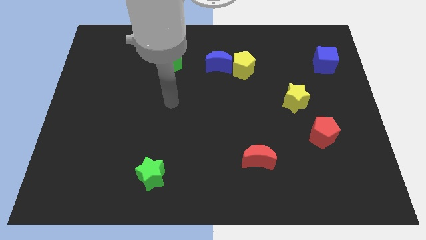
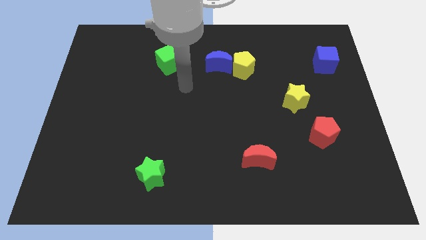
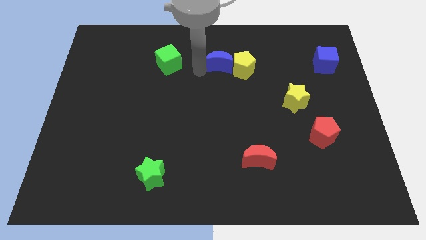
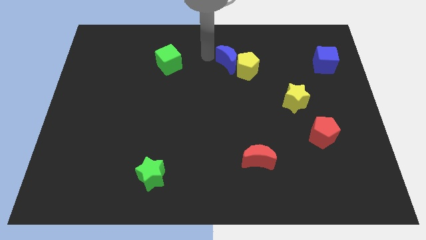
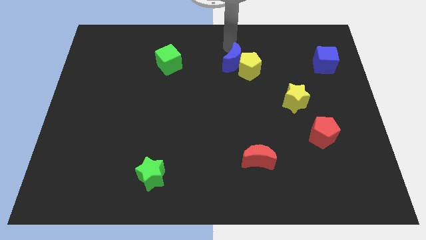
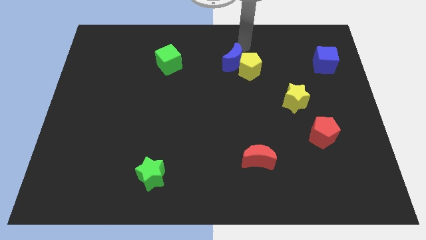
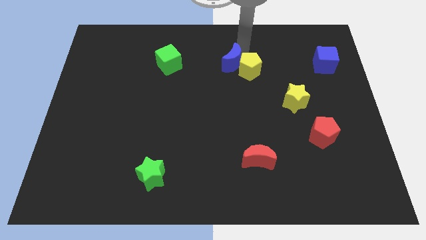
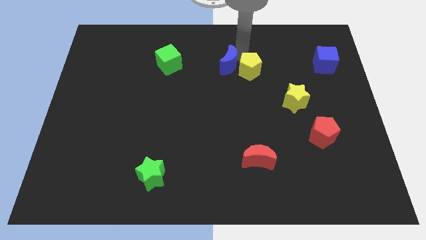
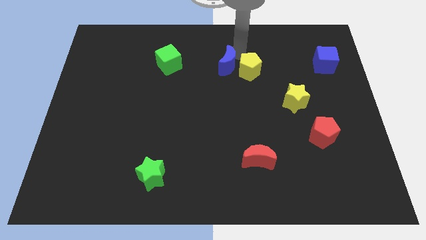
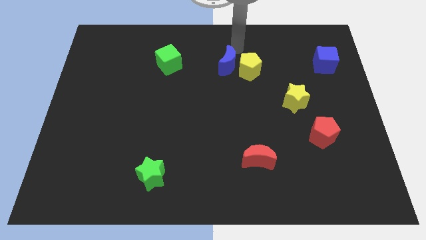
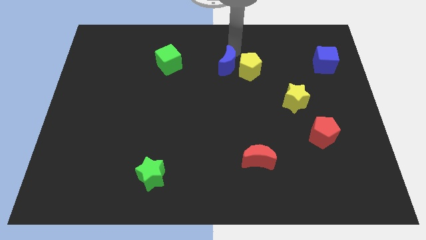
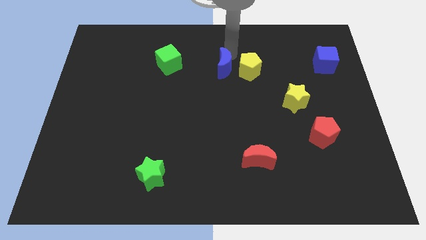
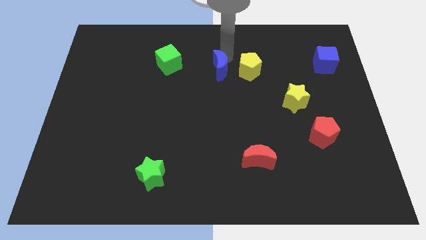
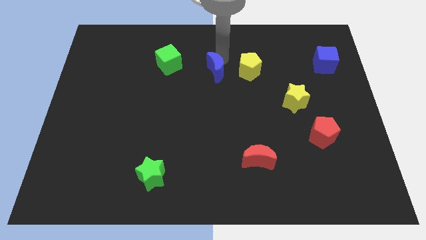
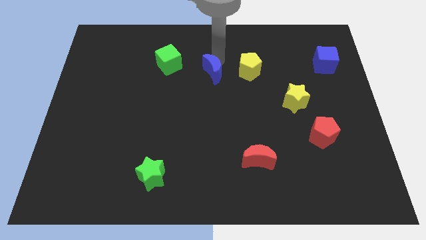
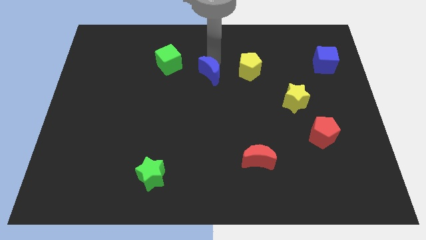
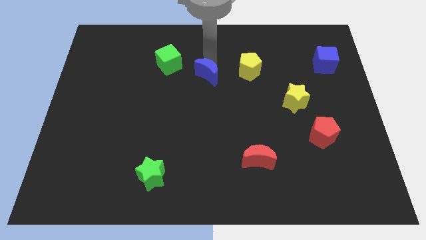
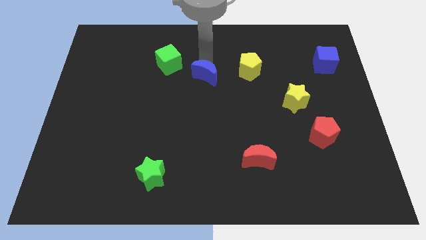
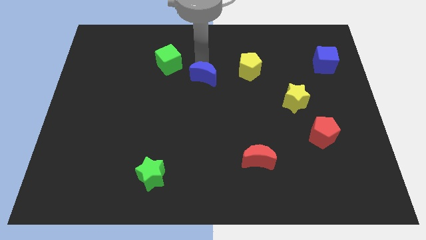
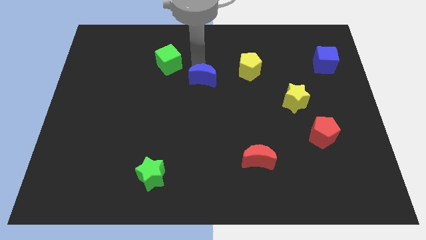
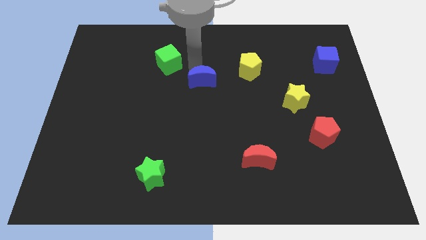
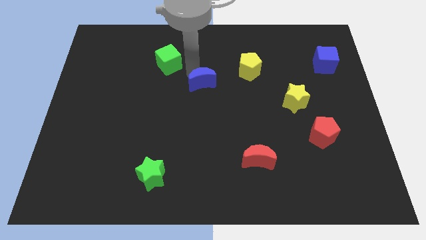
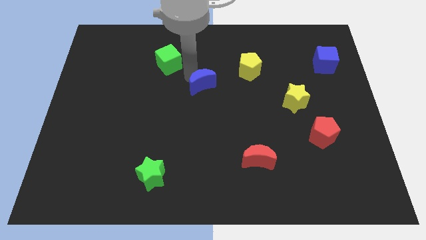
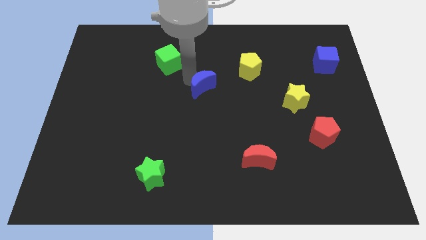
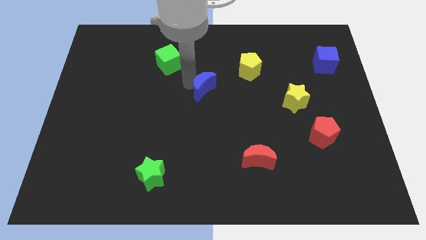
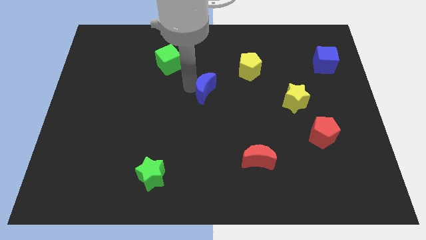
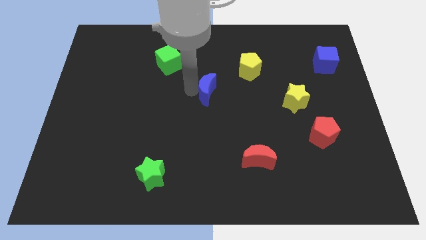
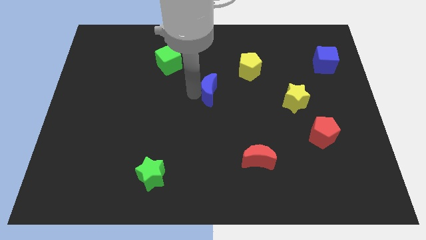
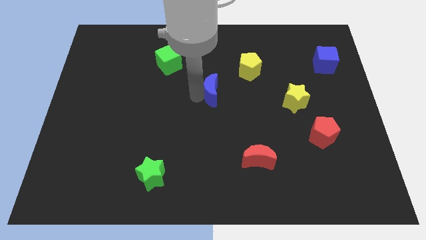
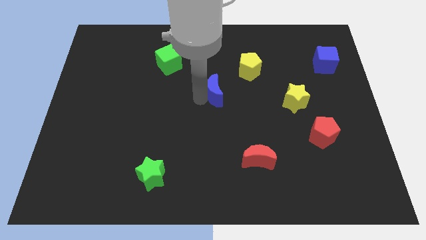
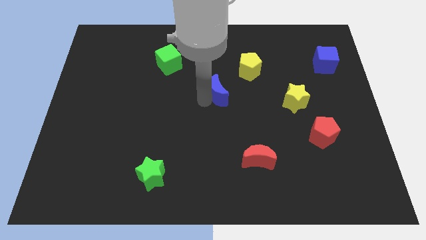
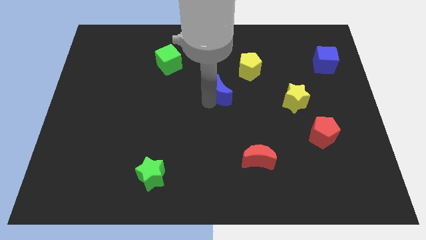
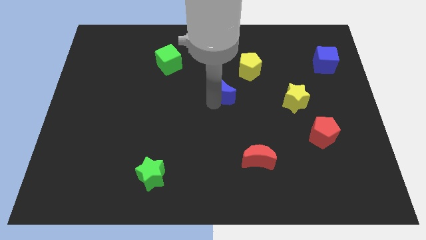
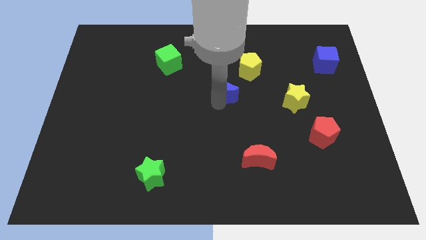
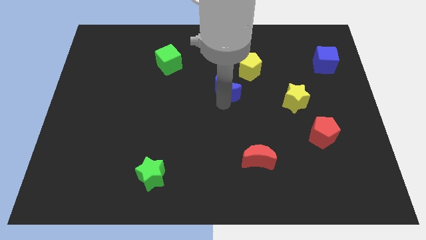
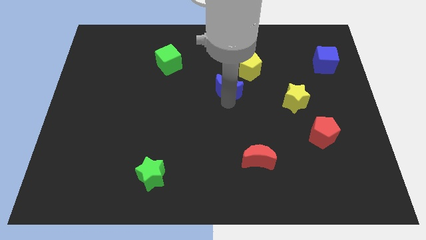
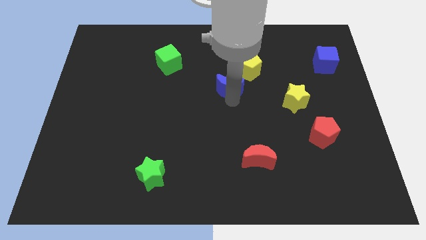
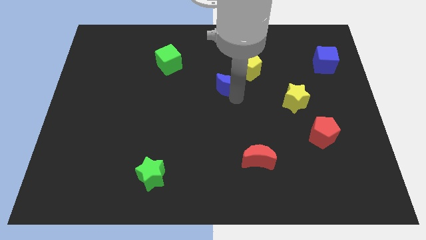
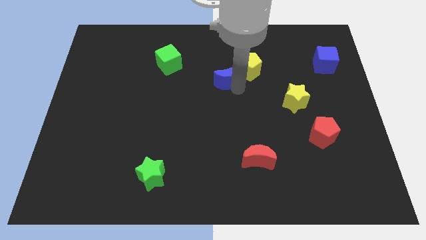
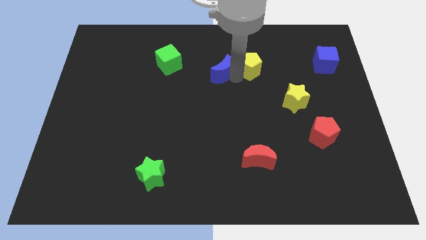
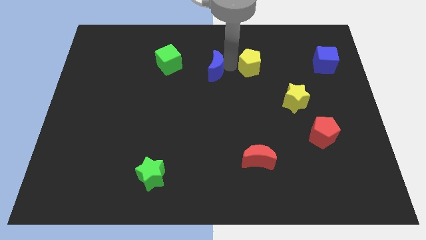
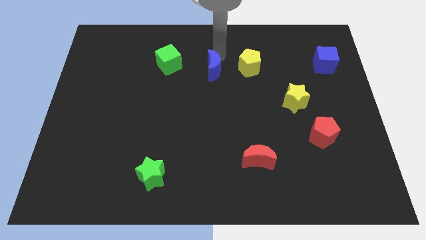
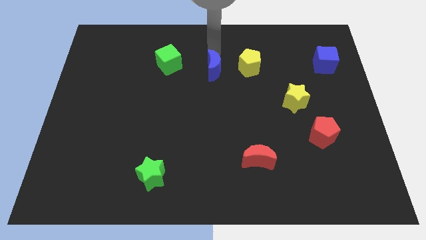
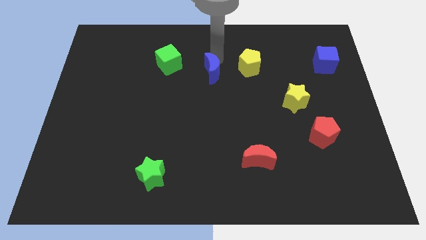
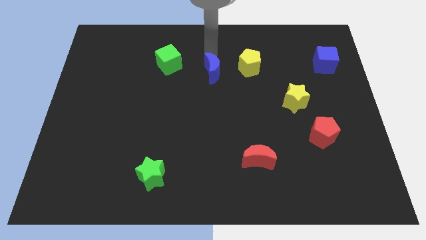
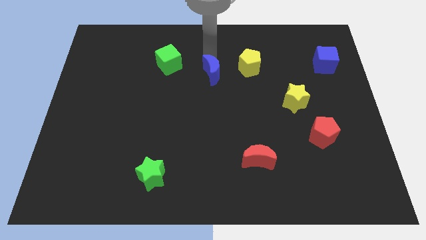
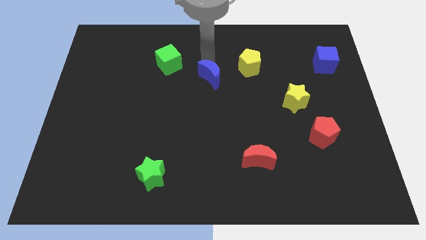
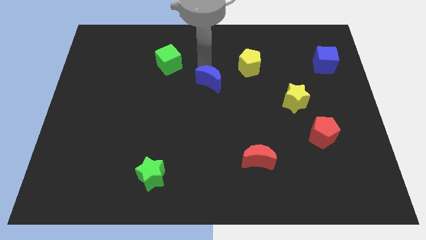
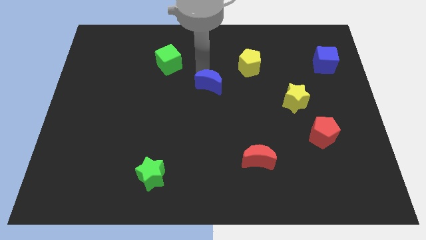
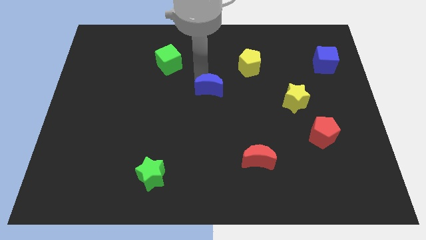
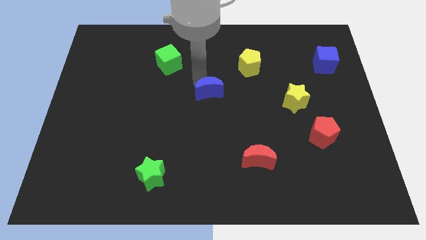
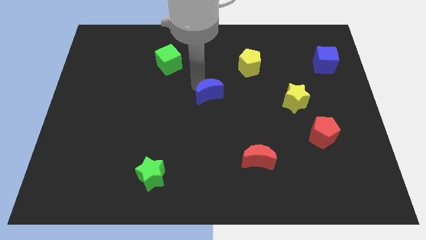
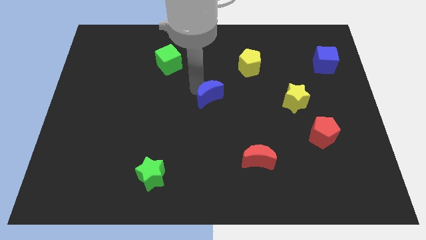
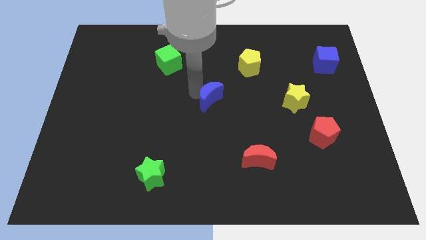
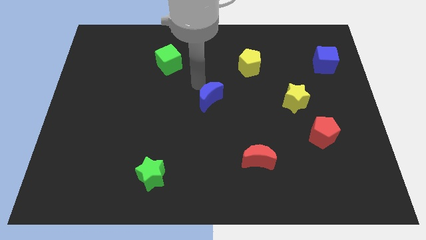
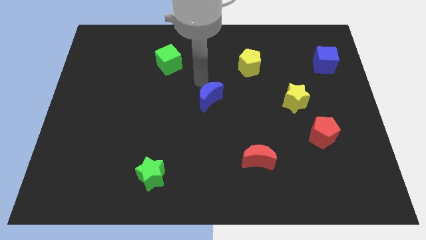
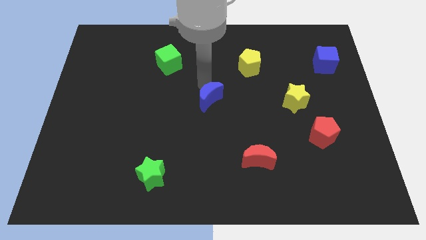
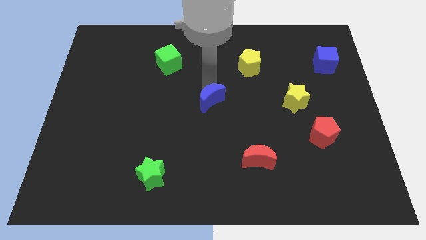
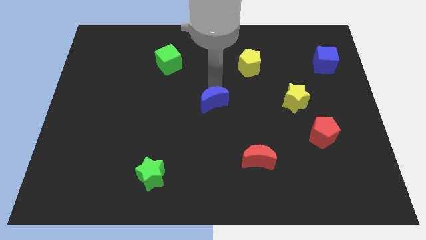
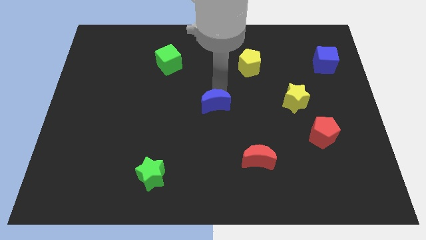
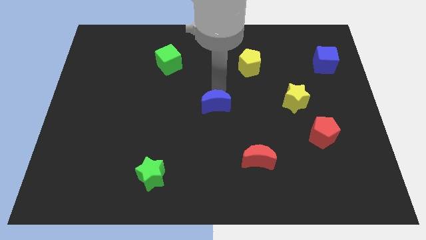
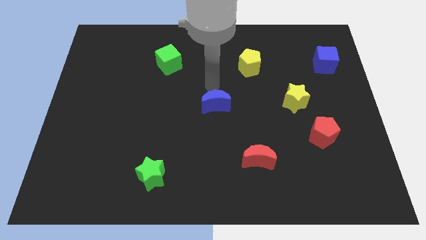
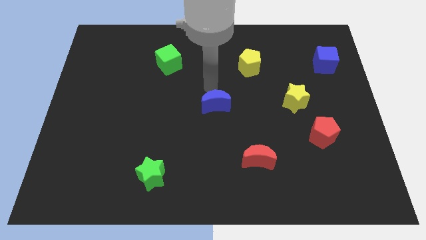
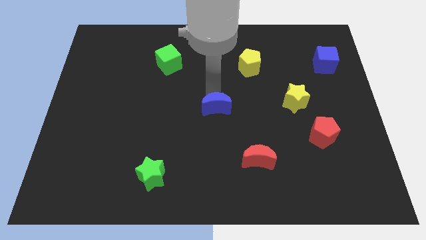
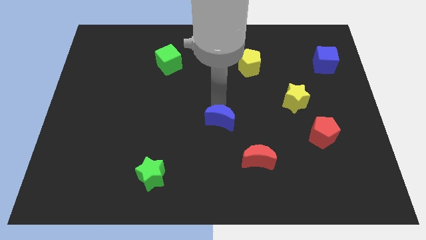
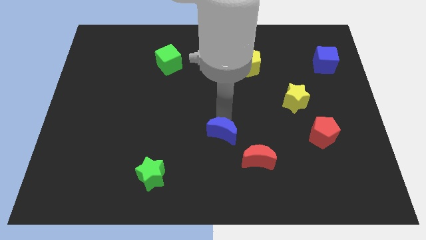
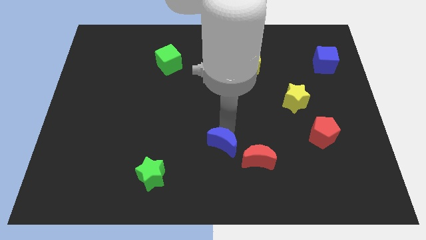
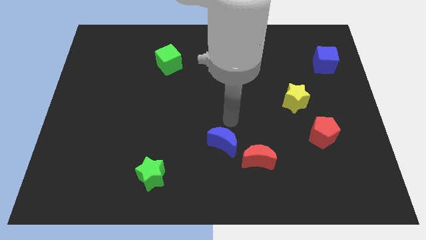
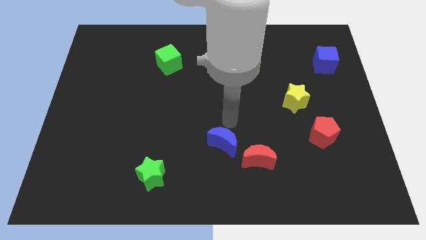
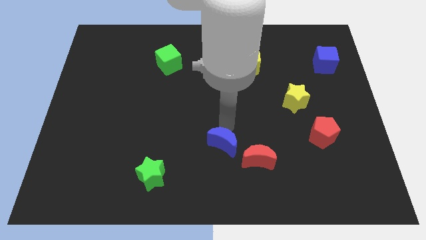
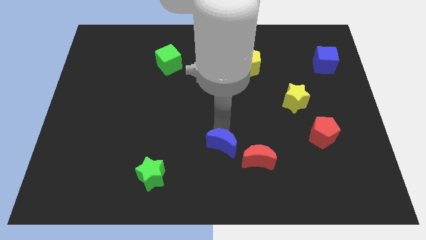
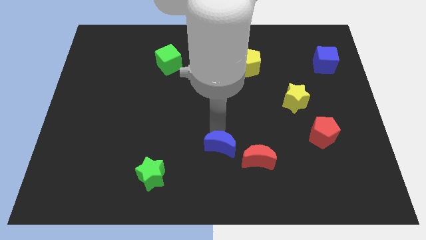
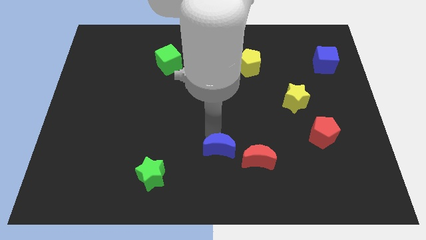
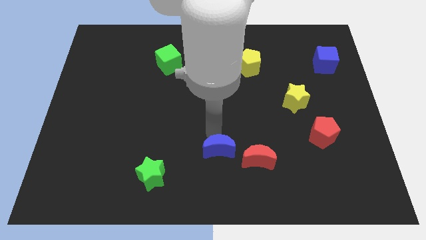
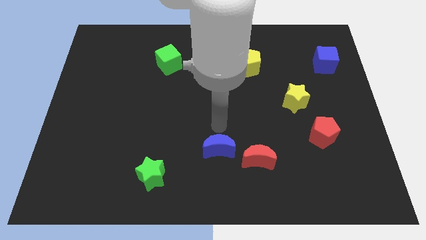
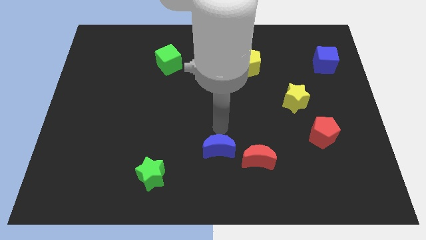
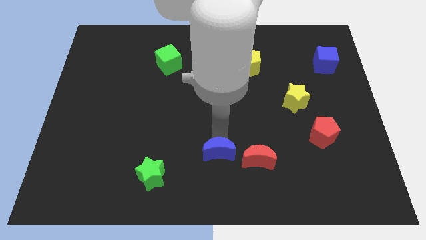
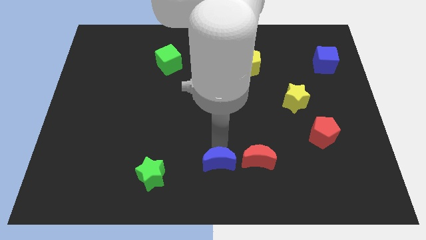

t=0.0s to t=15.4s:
move the blue moon to the bottom
